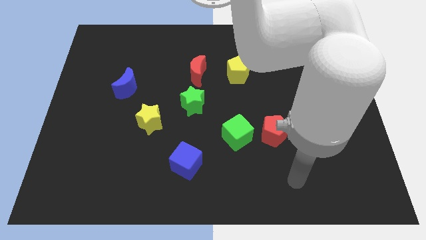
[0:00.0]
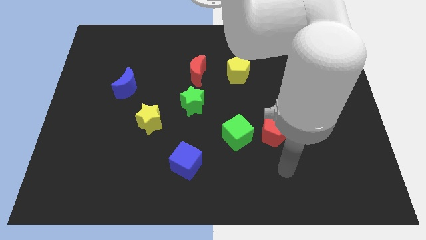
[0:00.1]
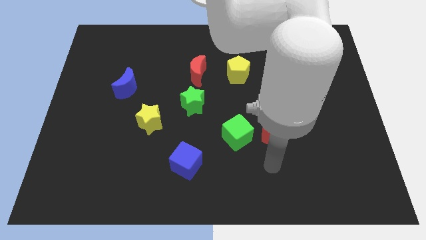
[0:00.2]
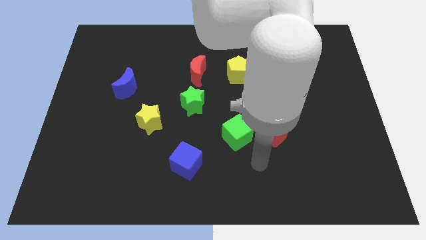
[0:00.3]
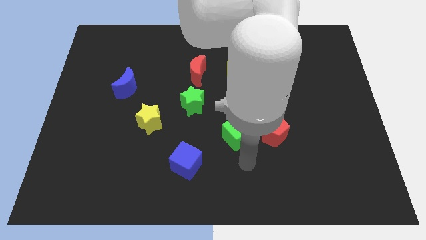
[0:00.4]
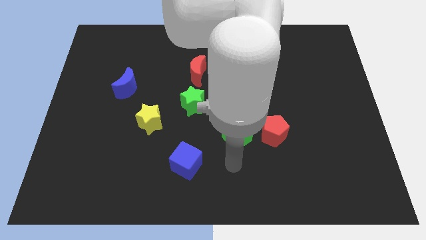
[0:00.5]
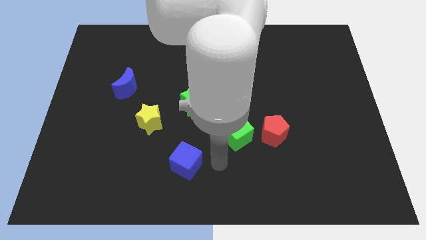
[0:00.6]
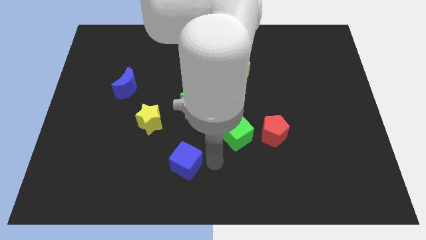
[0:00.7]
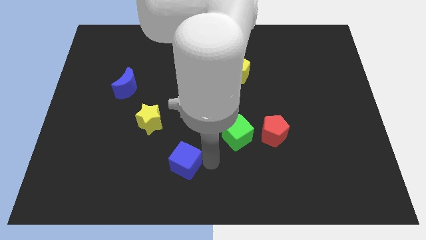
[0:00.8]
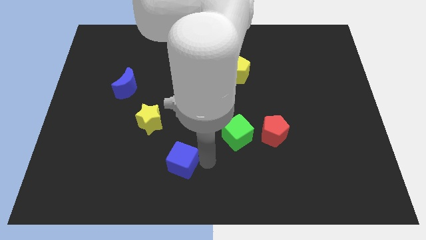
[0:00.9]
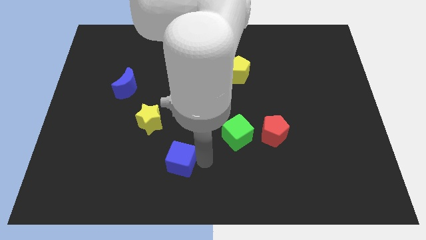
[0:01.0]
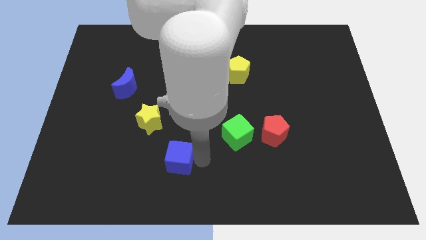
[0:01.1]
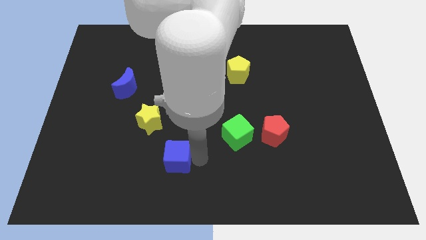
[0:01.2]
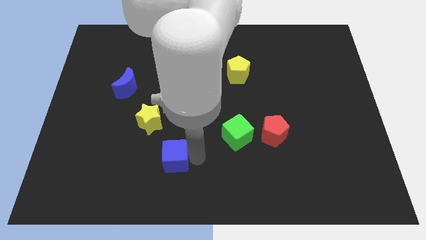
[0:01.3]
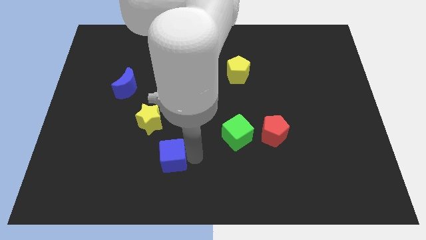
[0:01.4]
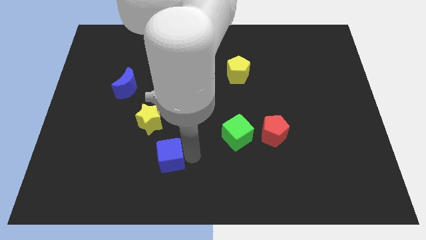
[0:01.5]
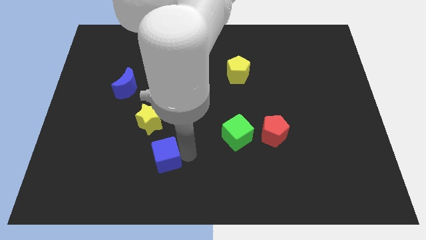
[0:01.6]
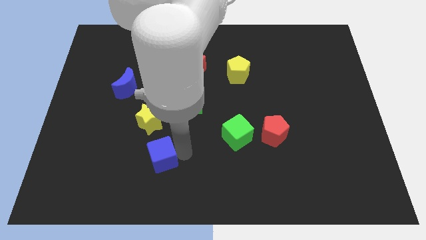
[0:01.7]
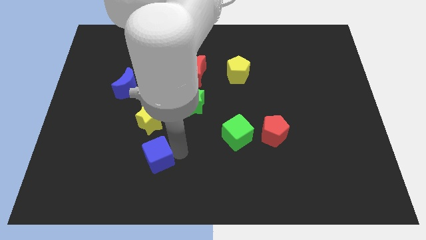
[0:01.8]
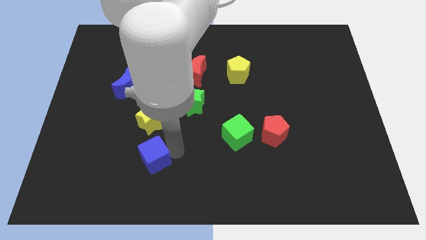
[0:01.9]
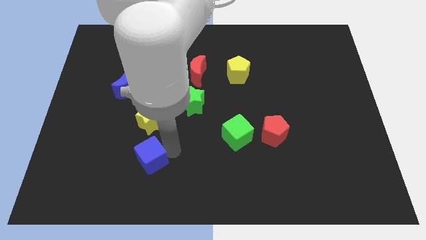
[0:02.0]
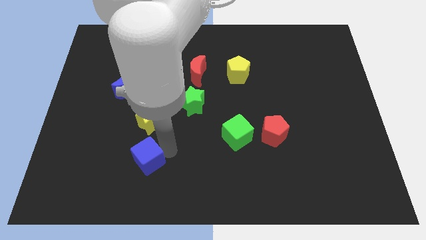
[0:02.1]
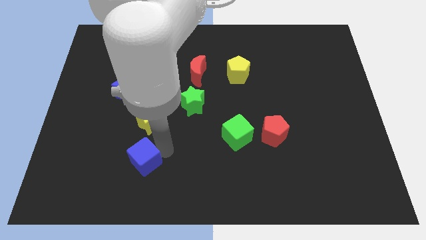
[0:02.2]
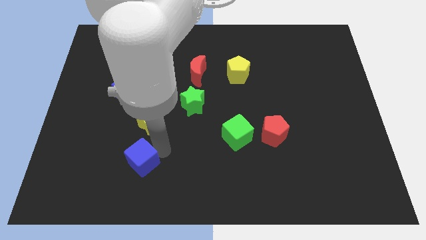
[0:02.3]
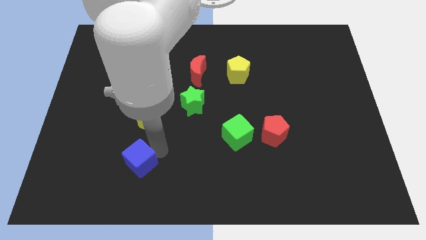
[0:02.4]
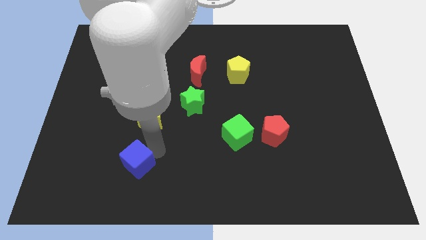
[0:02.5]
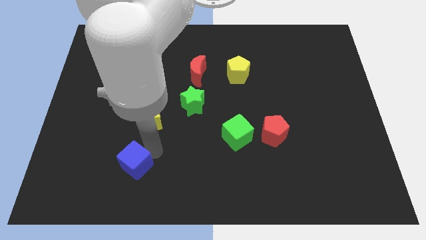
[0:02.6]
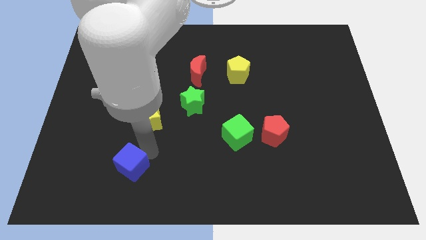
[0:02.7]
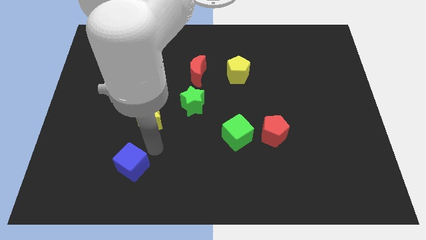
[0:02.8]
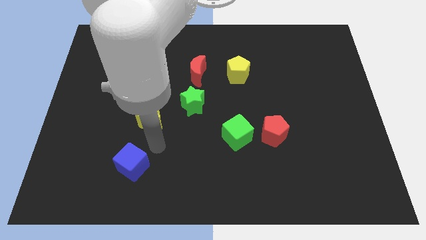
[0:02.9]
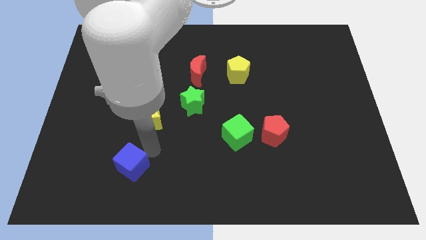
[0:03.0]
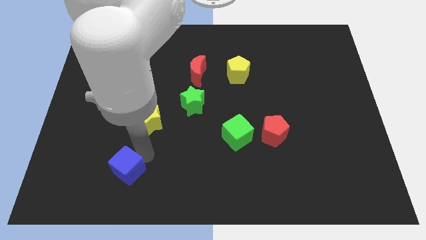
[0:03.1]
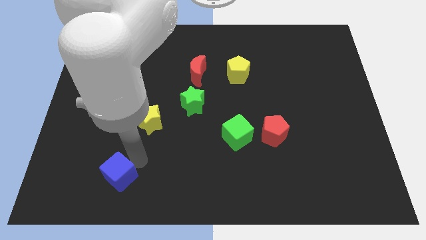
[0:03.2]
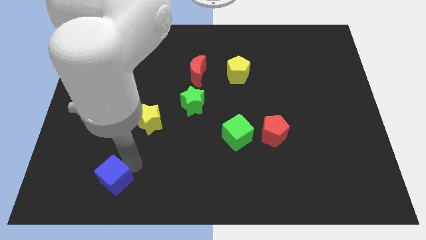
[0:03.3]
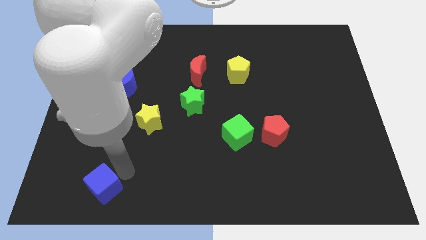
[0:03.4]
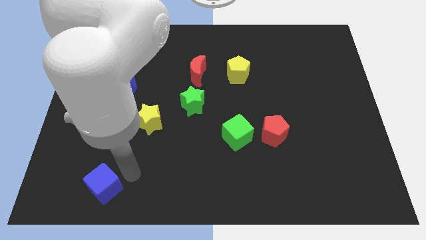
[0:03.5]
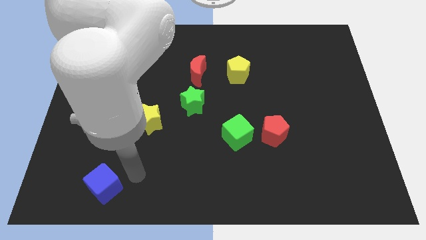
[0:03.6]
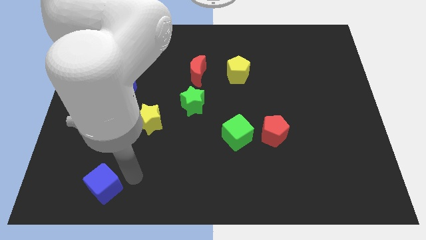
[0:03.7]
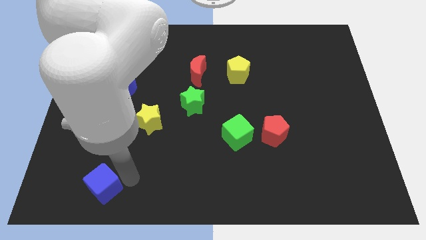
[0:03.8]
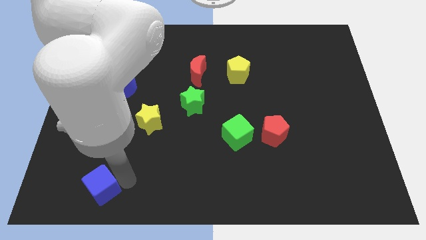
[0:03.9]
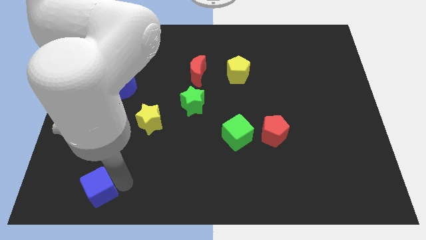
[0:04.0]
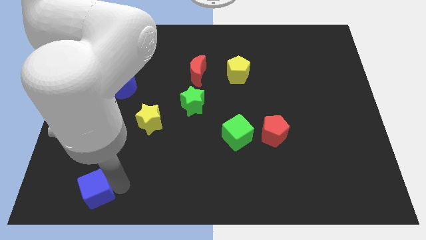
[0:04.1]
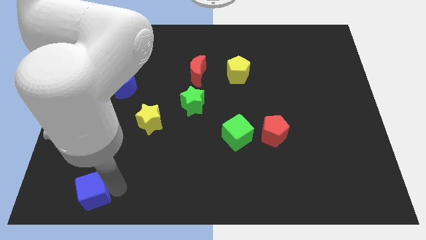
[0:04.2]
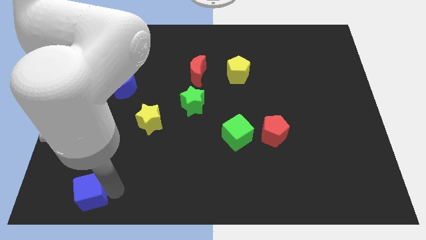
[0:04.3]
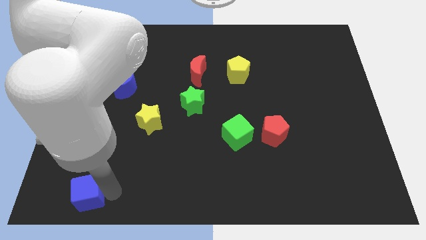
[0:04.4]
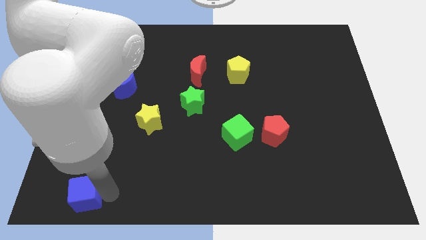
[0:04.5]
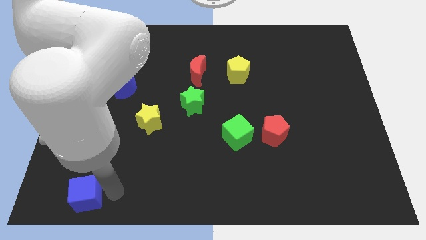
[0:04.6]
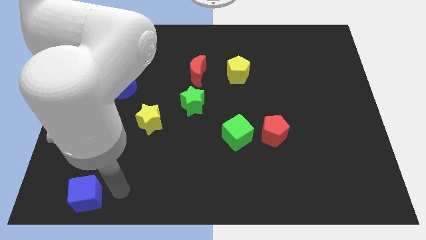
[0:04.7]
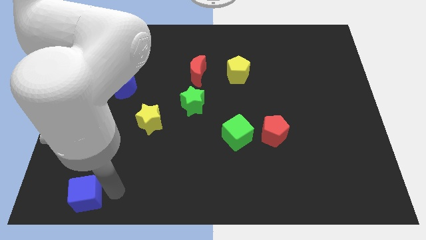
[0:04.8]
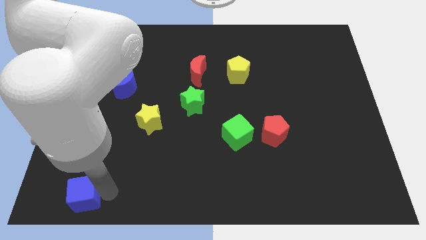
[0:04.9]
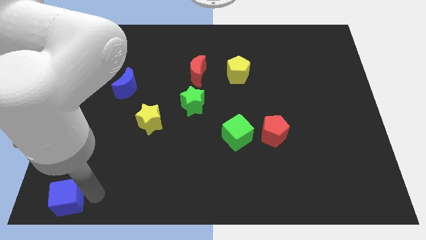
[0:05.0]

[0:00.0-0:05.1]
put the blue cube to the bottom left

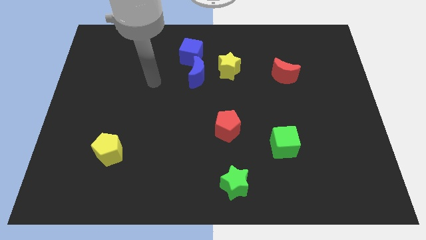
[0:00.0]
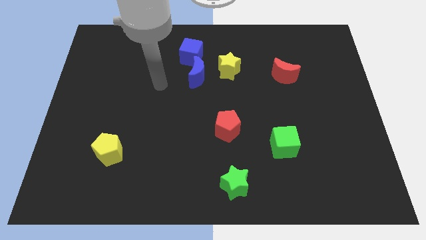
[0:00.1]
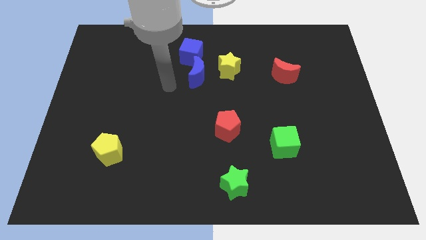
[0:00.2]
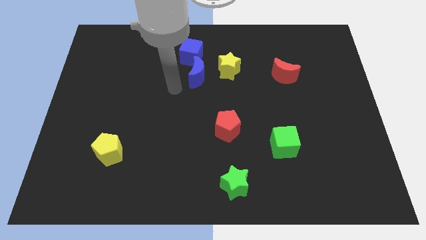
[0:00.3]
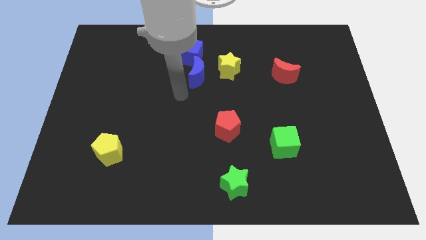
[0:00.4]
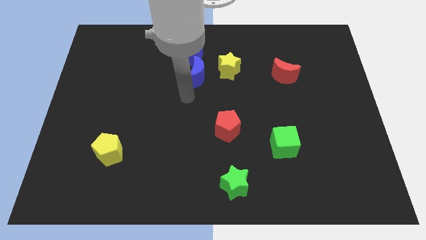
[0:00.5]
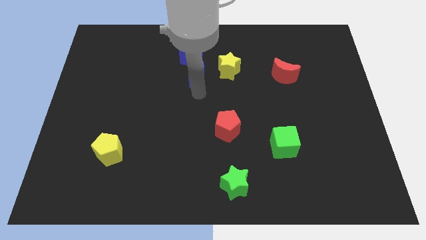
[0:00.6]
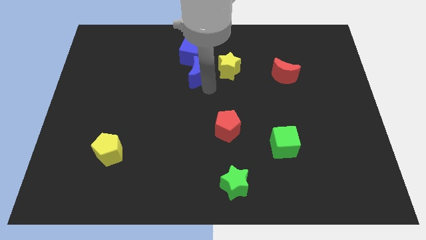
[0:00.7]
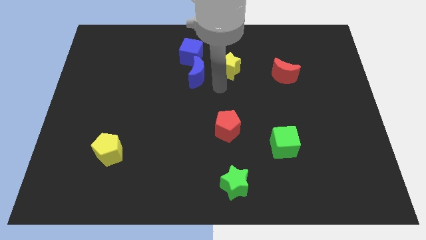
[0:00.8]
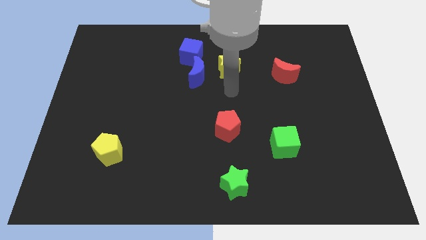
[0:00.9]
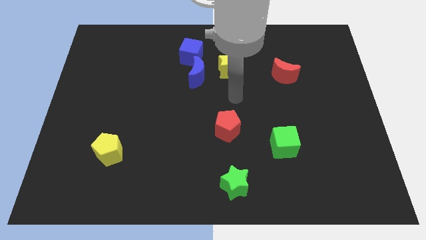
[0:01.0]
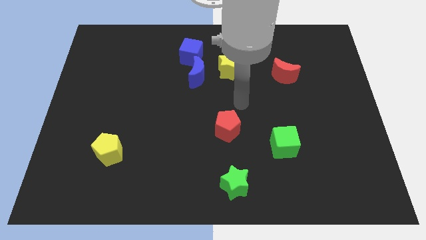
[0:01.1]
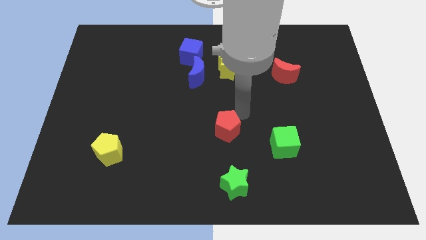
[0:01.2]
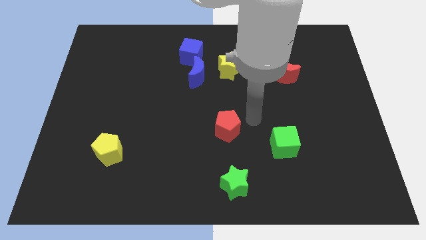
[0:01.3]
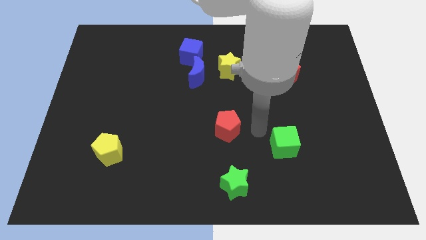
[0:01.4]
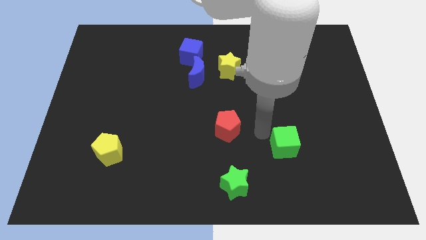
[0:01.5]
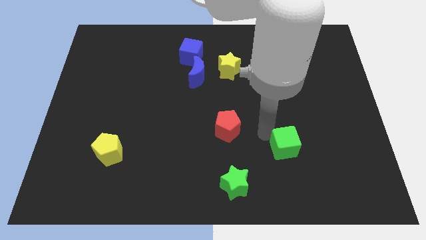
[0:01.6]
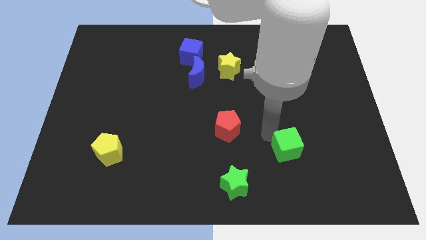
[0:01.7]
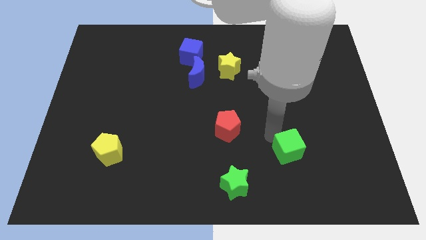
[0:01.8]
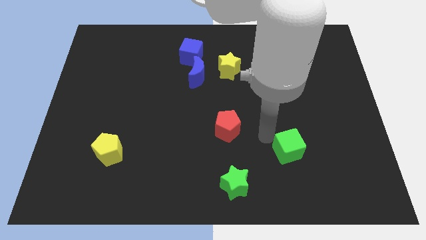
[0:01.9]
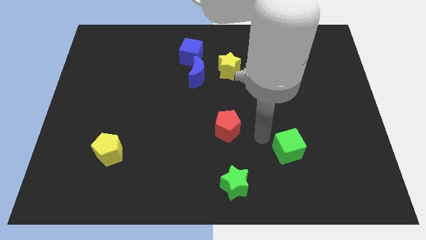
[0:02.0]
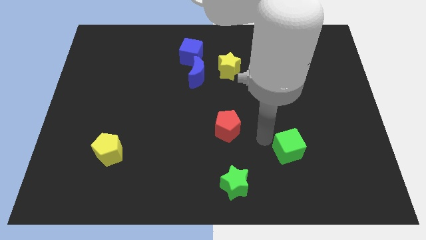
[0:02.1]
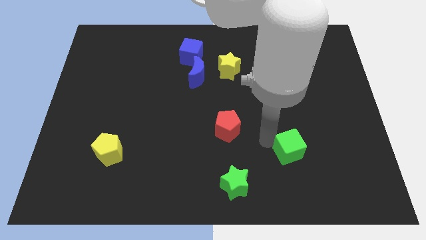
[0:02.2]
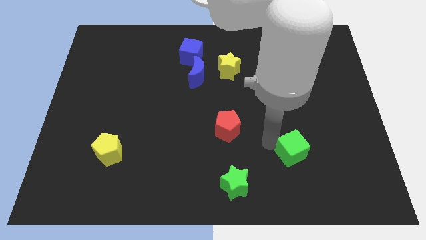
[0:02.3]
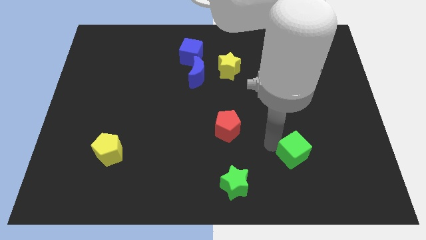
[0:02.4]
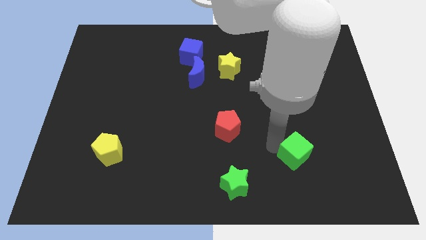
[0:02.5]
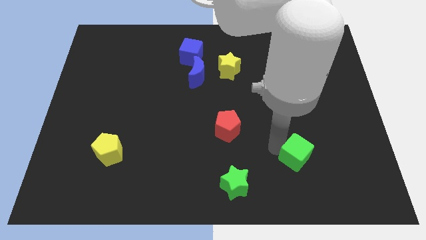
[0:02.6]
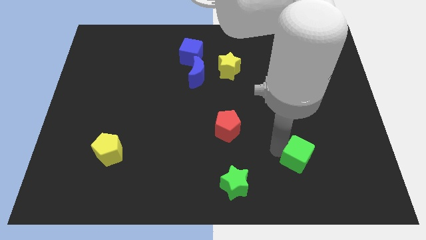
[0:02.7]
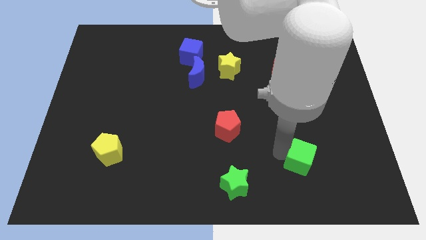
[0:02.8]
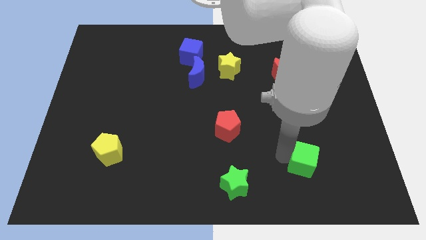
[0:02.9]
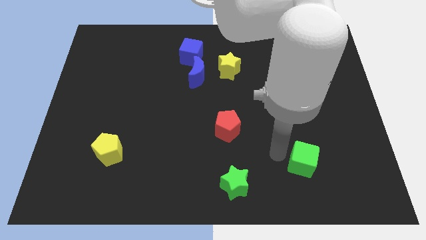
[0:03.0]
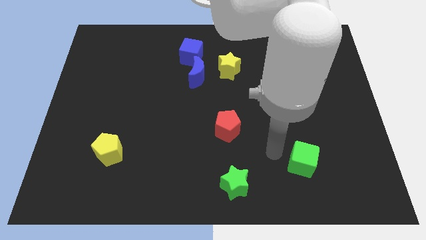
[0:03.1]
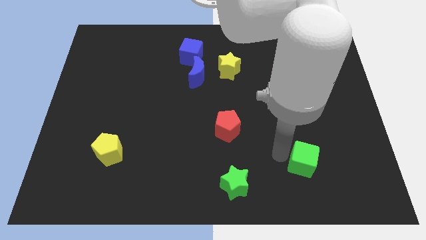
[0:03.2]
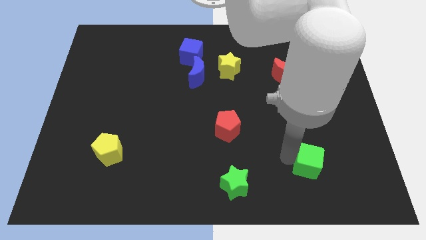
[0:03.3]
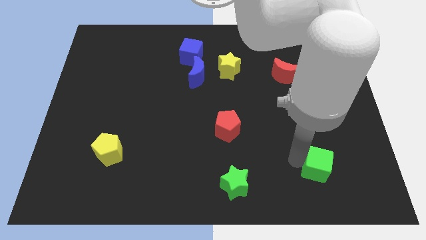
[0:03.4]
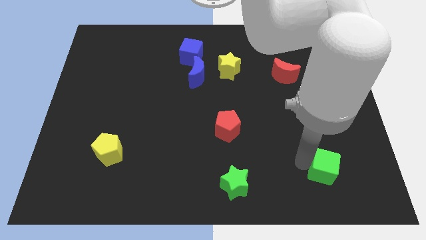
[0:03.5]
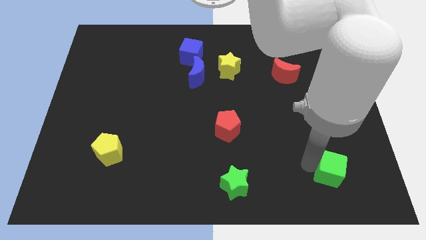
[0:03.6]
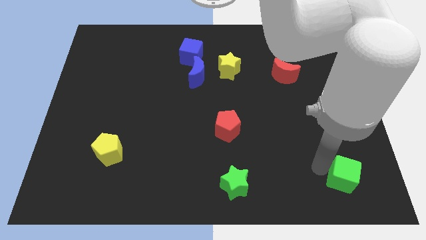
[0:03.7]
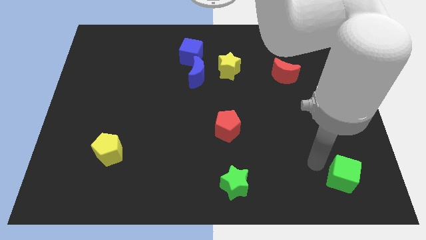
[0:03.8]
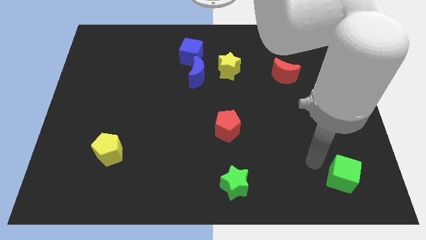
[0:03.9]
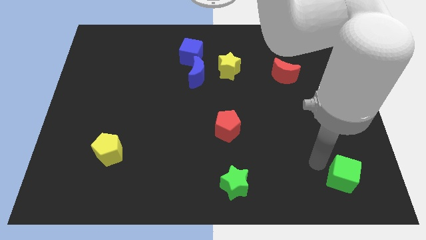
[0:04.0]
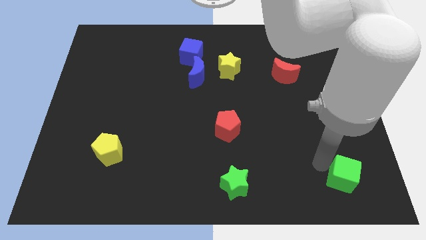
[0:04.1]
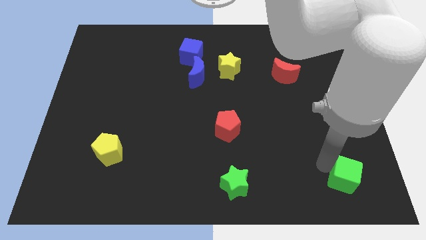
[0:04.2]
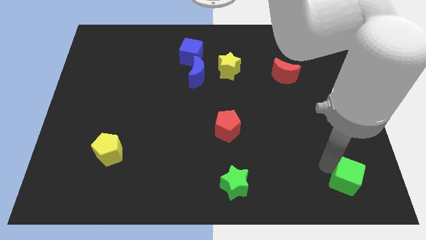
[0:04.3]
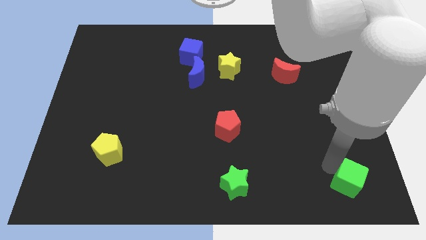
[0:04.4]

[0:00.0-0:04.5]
move the green cube to the bottom right corner
